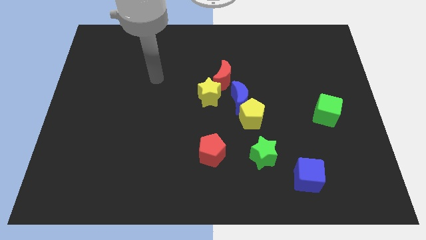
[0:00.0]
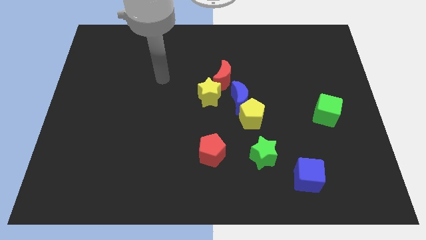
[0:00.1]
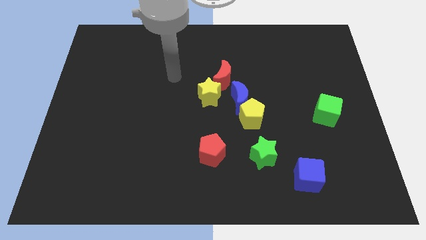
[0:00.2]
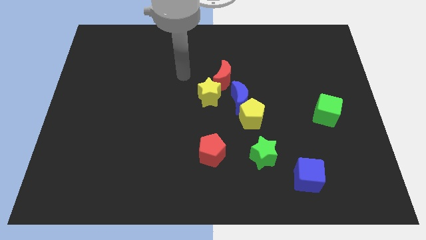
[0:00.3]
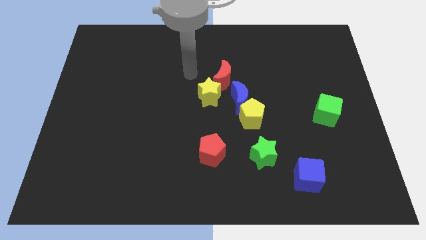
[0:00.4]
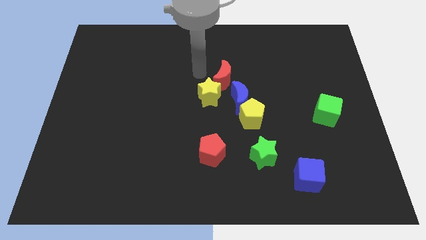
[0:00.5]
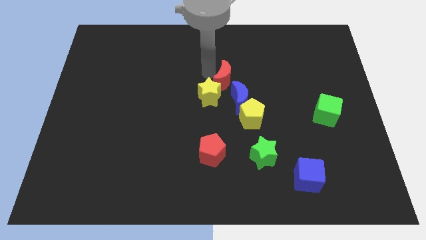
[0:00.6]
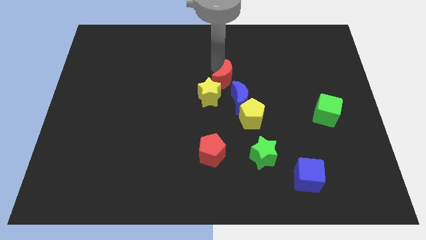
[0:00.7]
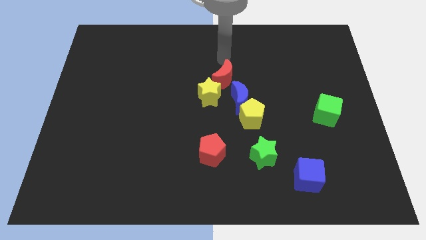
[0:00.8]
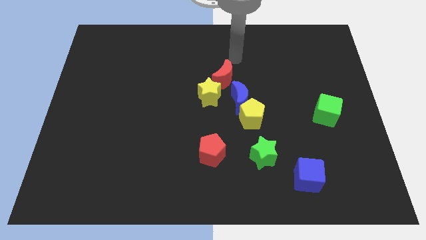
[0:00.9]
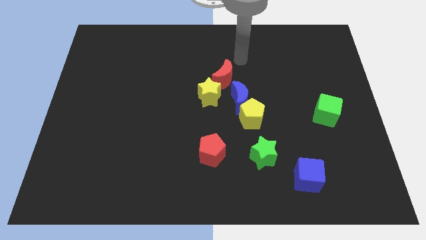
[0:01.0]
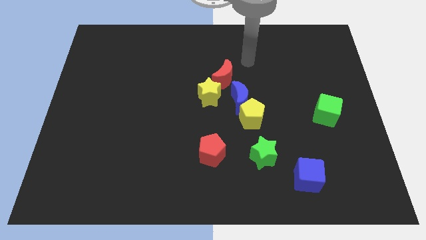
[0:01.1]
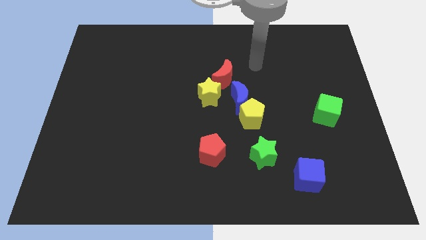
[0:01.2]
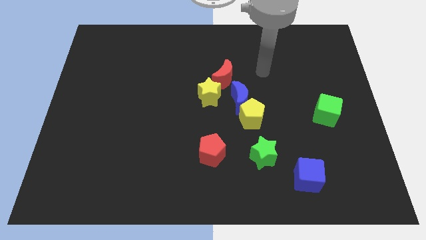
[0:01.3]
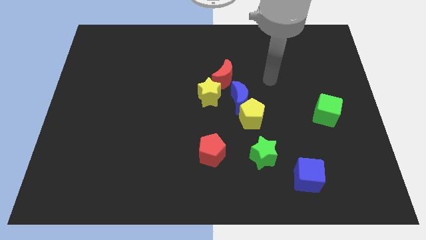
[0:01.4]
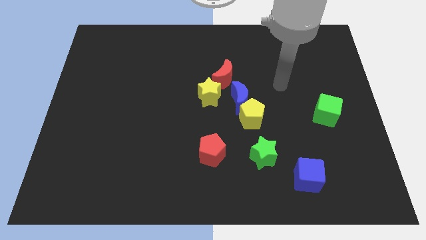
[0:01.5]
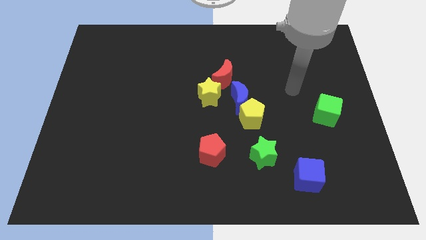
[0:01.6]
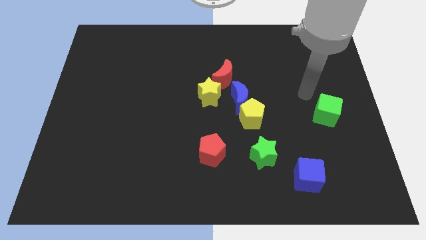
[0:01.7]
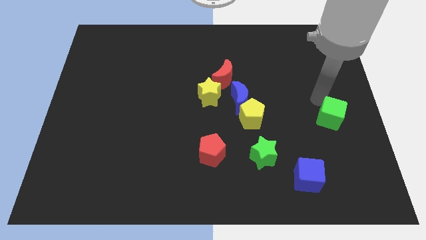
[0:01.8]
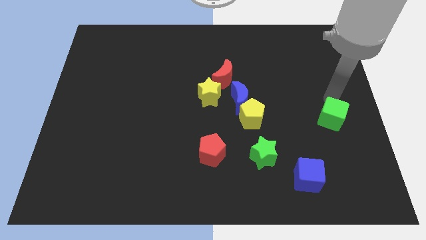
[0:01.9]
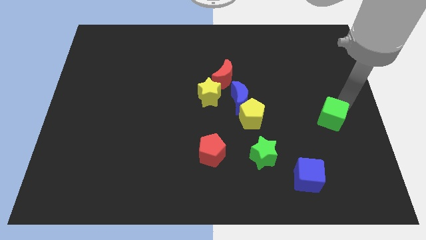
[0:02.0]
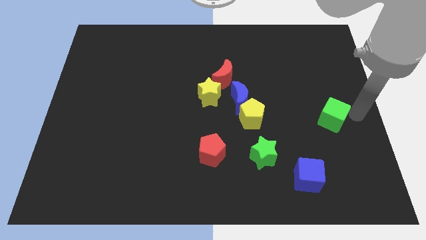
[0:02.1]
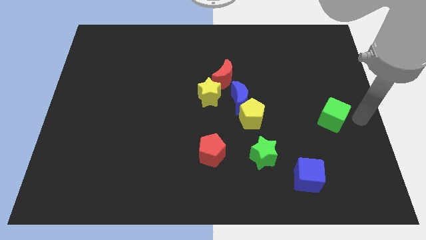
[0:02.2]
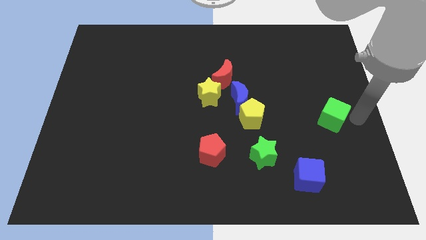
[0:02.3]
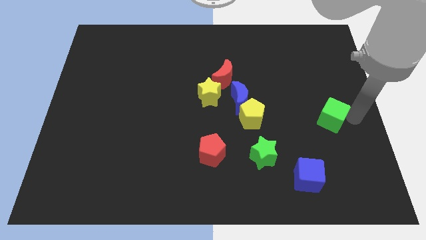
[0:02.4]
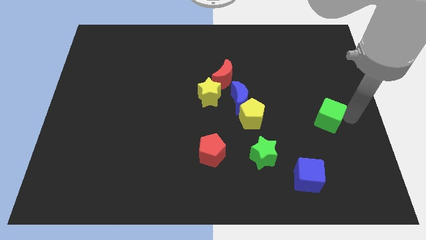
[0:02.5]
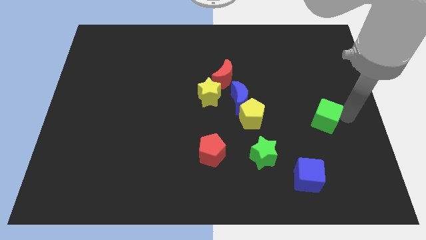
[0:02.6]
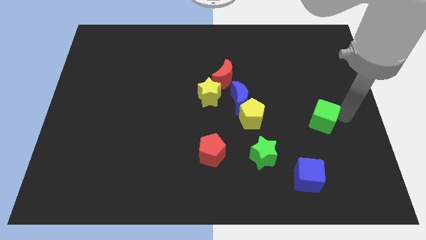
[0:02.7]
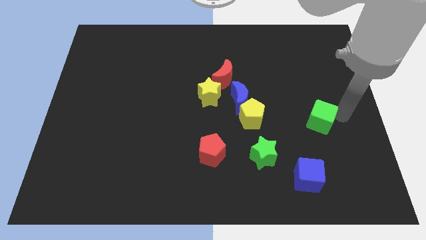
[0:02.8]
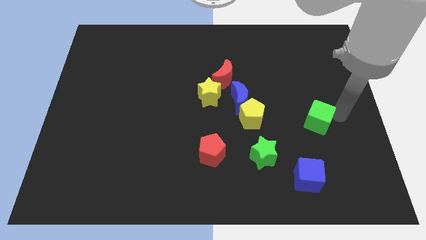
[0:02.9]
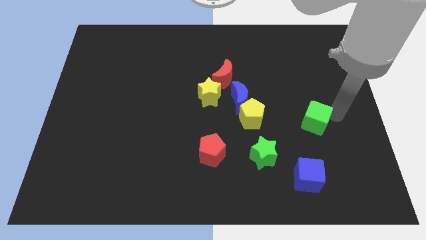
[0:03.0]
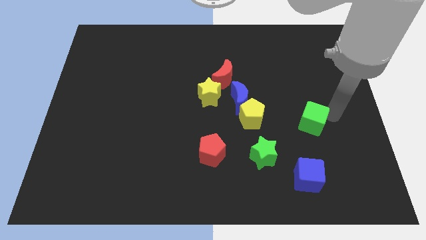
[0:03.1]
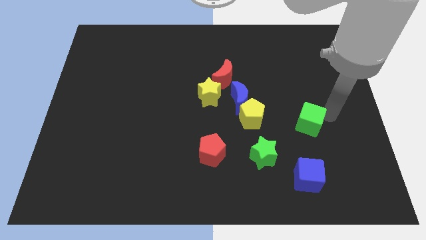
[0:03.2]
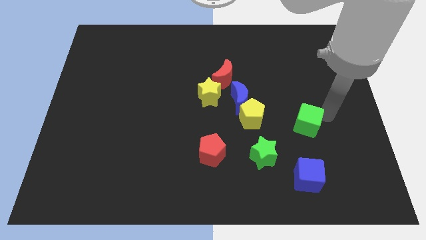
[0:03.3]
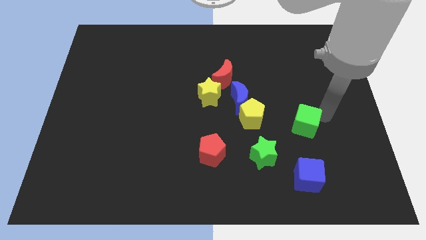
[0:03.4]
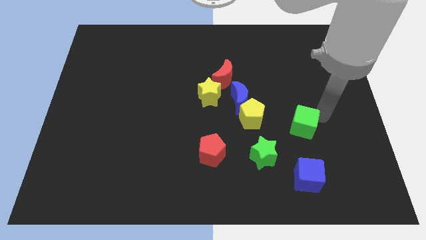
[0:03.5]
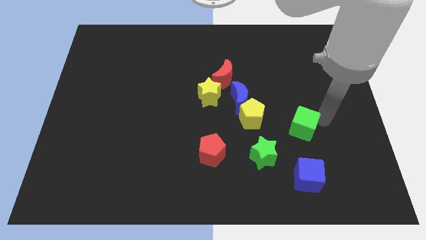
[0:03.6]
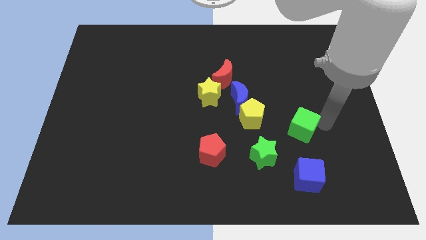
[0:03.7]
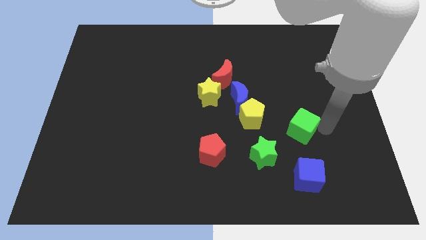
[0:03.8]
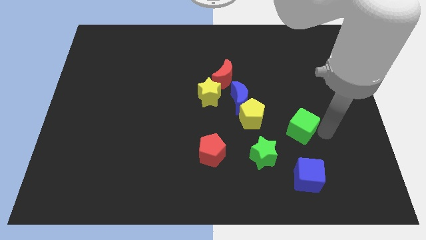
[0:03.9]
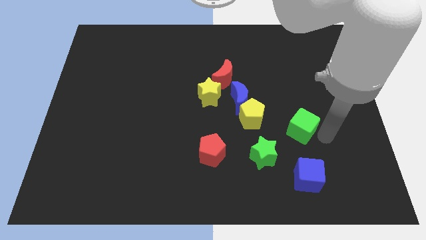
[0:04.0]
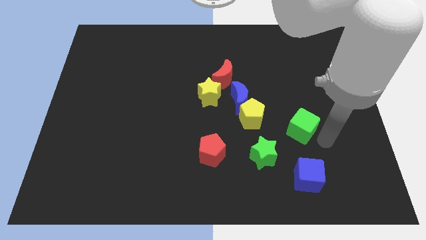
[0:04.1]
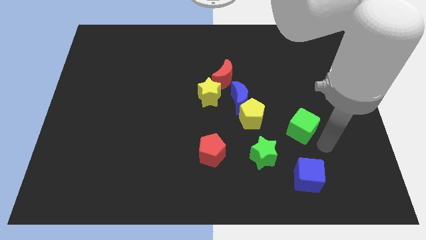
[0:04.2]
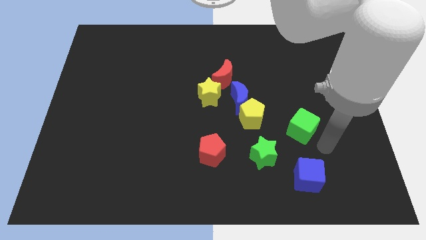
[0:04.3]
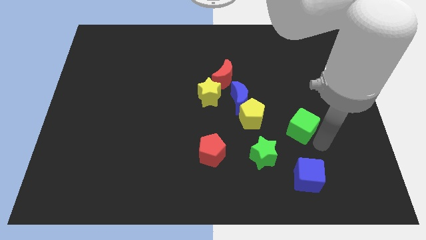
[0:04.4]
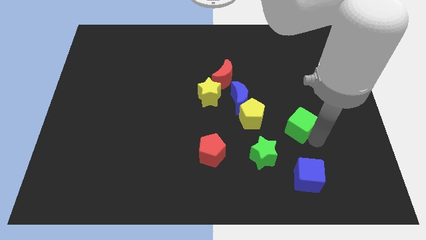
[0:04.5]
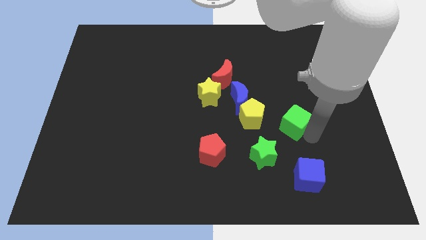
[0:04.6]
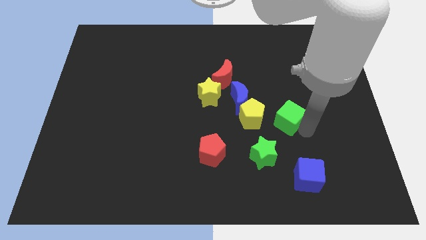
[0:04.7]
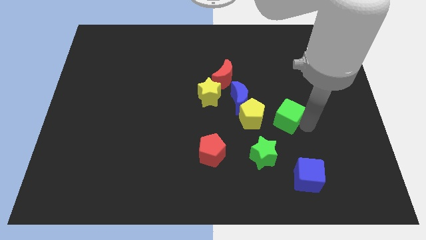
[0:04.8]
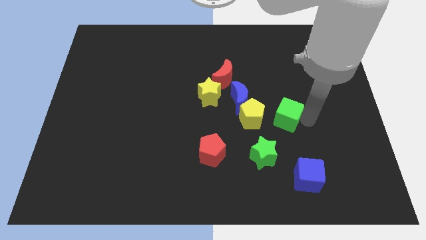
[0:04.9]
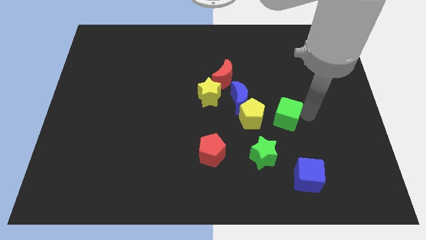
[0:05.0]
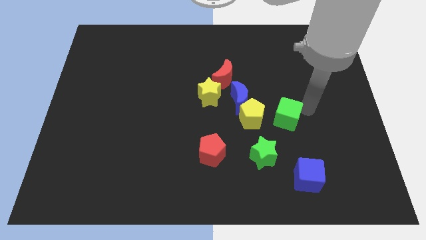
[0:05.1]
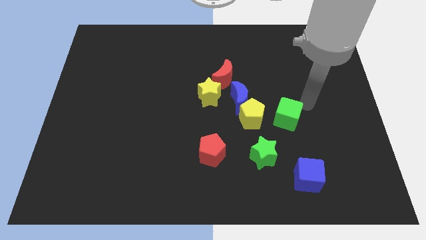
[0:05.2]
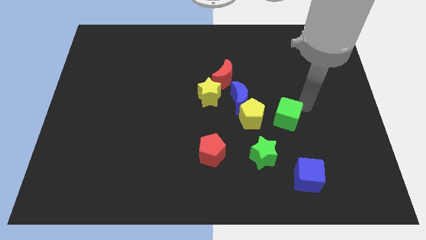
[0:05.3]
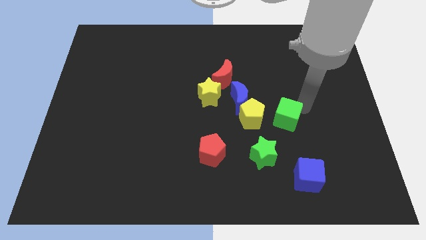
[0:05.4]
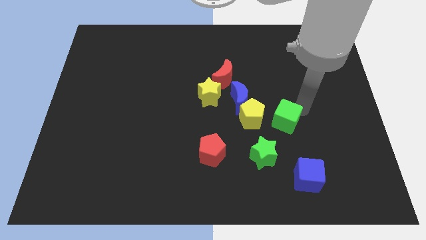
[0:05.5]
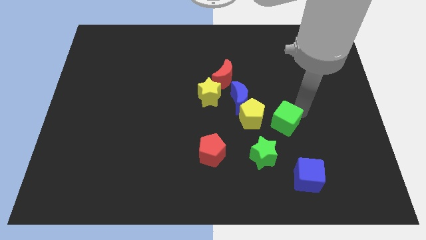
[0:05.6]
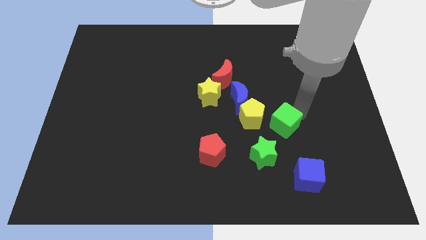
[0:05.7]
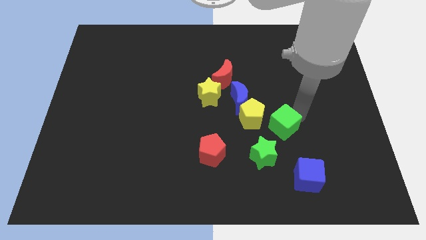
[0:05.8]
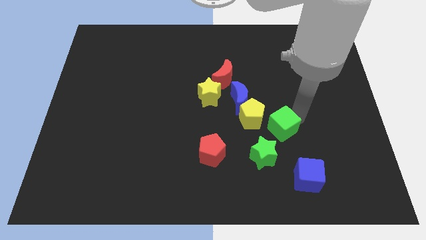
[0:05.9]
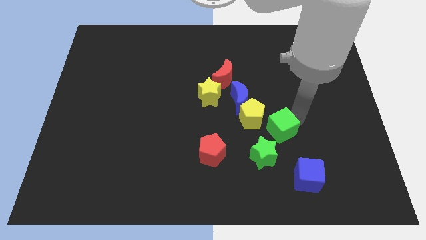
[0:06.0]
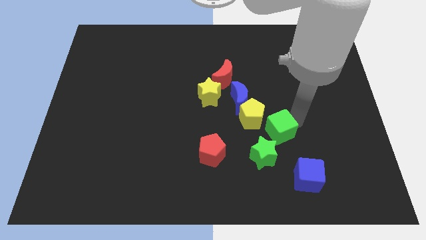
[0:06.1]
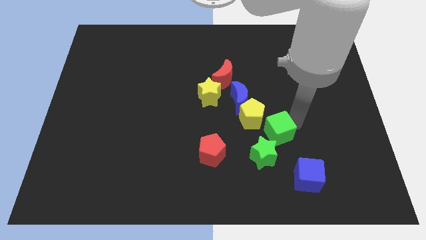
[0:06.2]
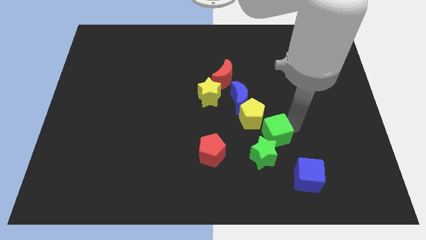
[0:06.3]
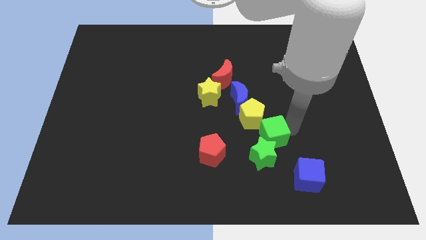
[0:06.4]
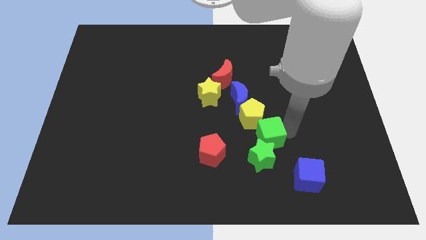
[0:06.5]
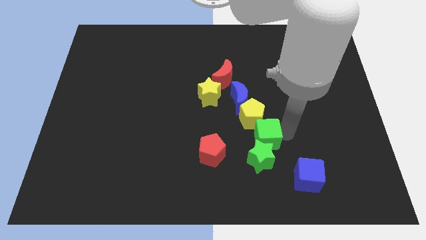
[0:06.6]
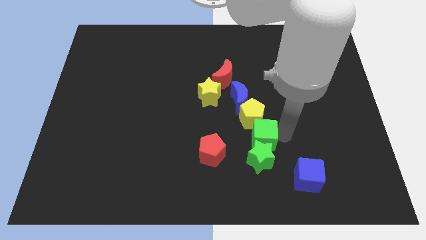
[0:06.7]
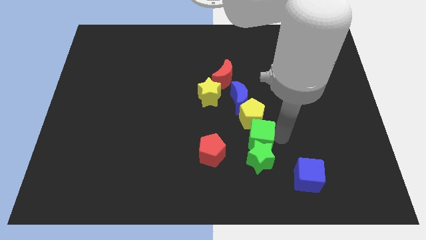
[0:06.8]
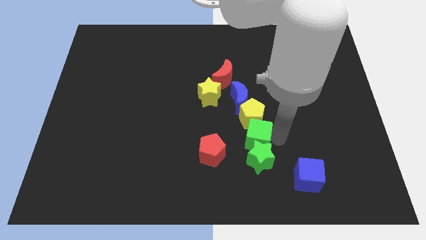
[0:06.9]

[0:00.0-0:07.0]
slide the green cube to the top right of the red pentagon

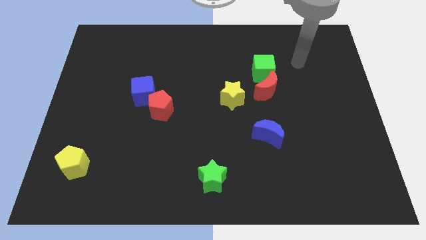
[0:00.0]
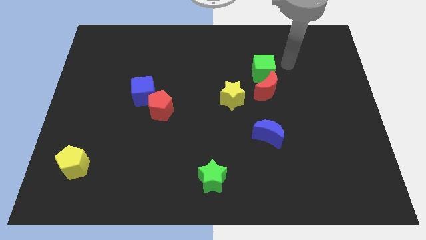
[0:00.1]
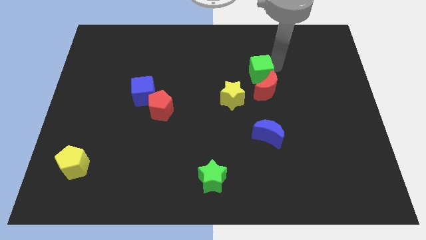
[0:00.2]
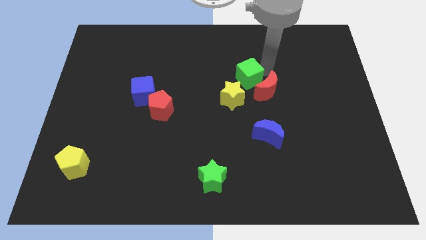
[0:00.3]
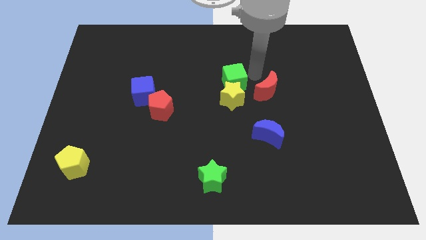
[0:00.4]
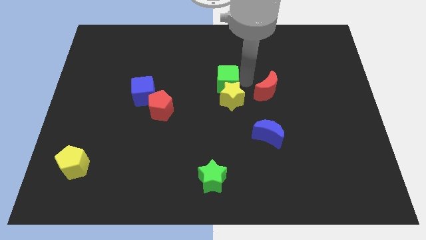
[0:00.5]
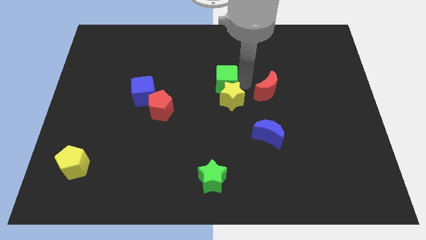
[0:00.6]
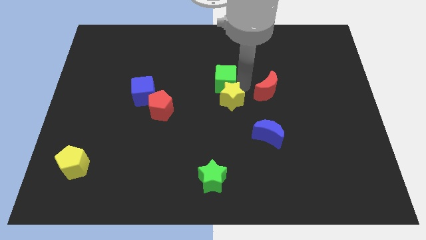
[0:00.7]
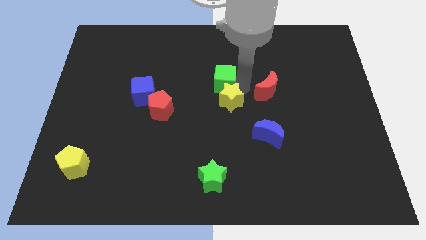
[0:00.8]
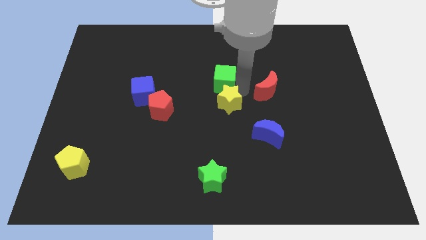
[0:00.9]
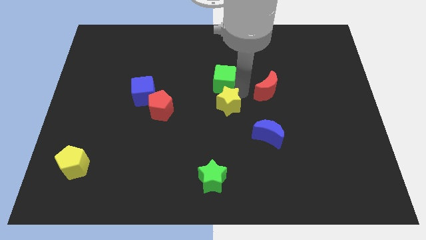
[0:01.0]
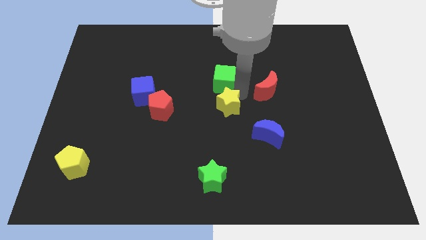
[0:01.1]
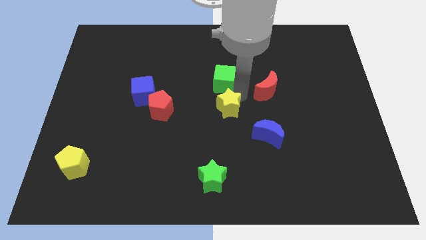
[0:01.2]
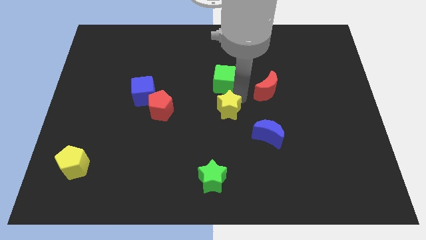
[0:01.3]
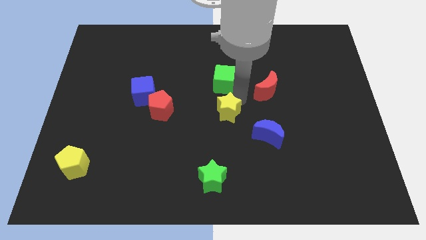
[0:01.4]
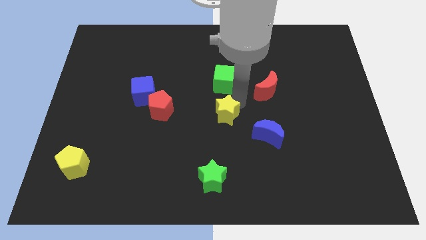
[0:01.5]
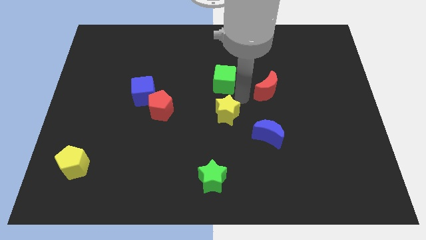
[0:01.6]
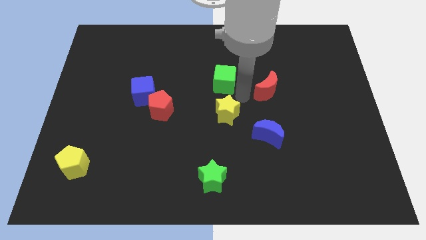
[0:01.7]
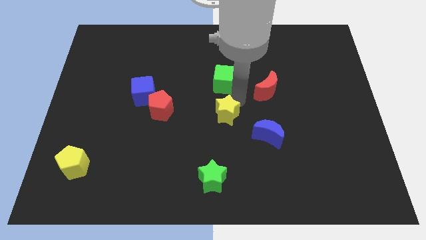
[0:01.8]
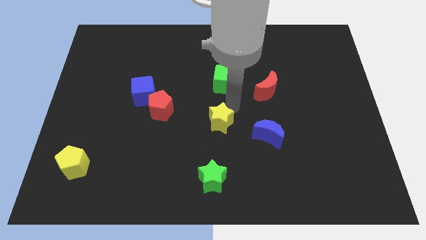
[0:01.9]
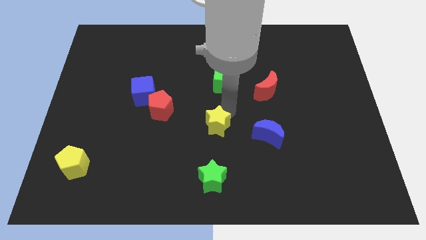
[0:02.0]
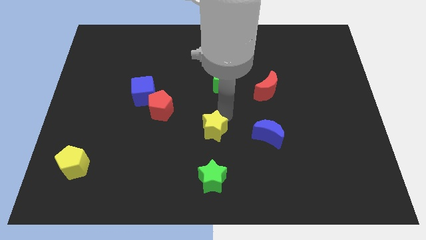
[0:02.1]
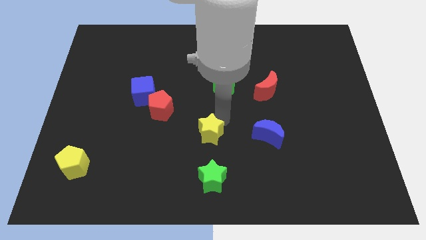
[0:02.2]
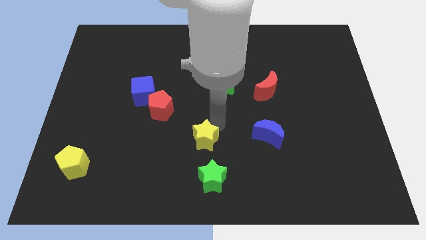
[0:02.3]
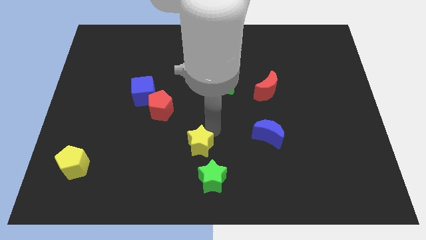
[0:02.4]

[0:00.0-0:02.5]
slide the yellow star diagonally up and to the left of the green star
